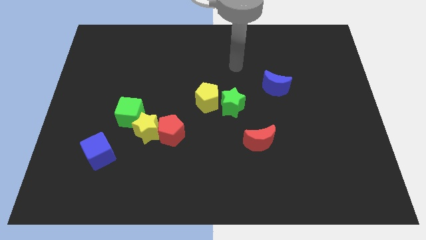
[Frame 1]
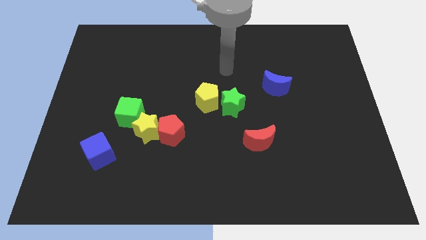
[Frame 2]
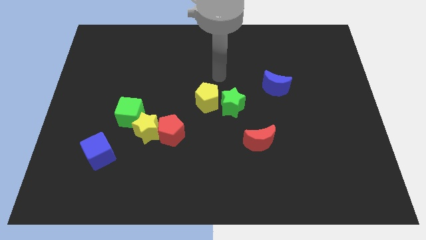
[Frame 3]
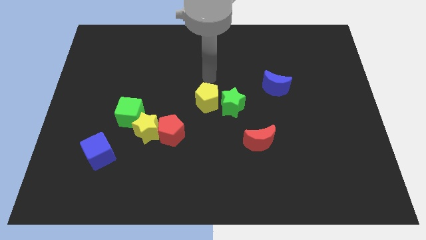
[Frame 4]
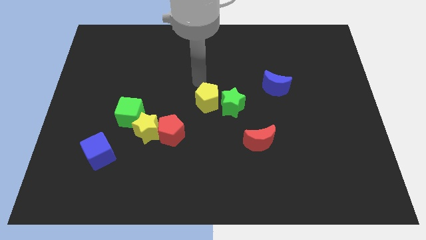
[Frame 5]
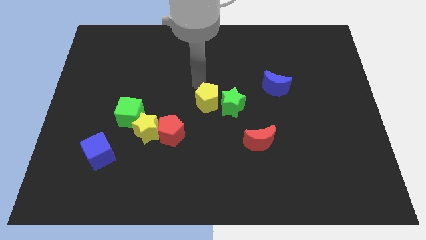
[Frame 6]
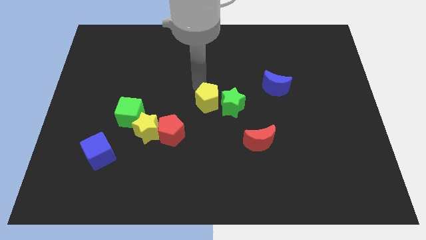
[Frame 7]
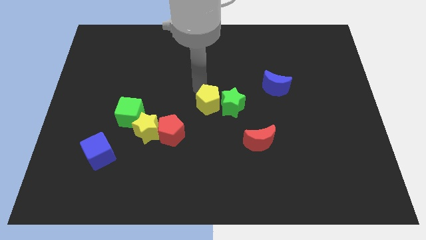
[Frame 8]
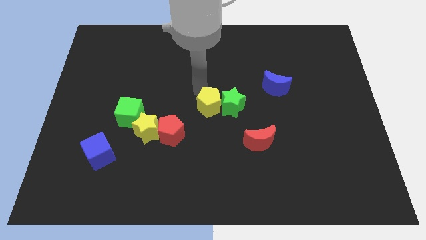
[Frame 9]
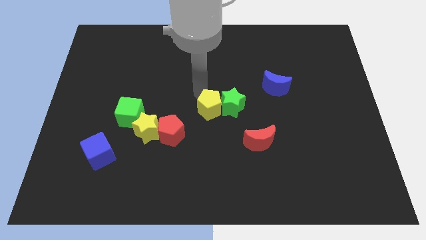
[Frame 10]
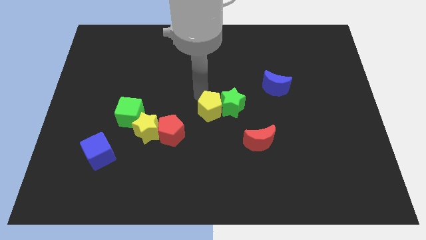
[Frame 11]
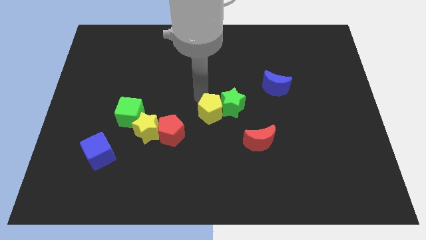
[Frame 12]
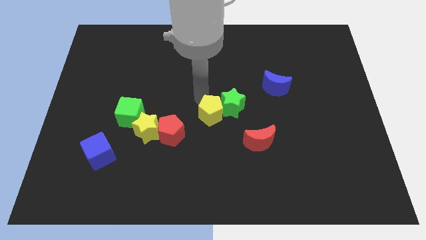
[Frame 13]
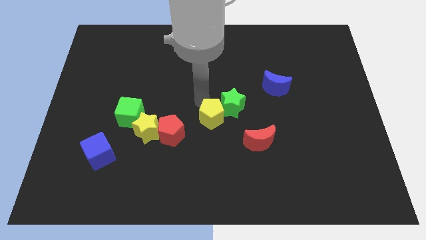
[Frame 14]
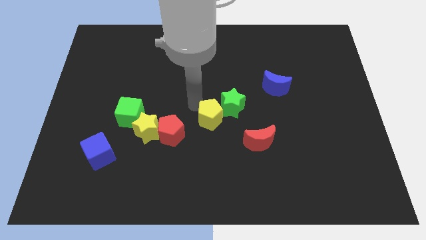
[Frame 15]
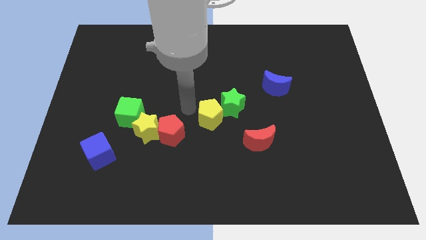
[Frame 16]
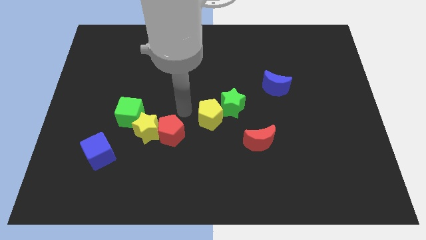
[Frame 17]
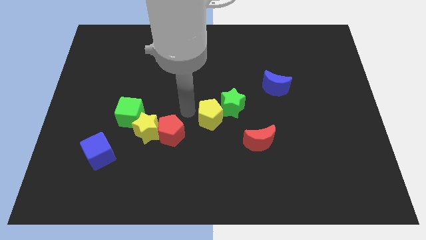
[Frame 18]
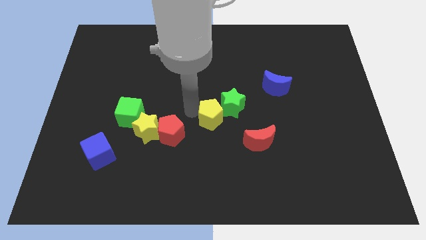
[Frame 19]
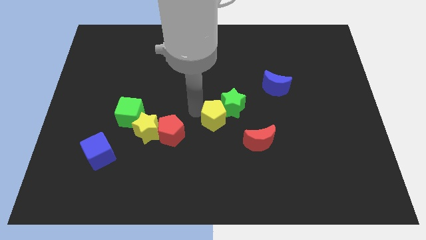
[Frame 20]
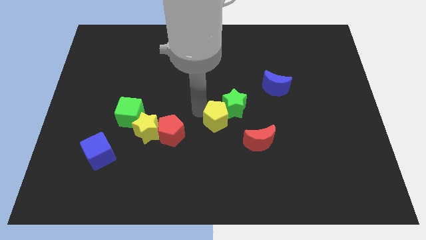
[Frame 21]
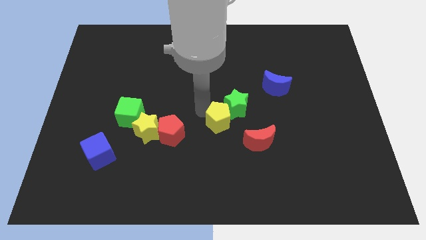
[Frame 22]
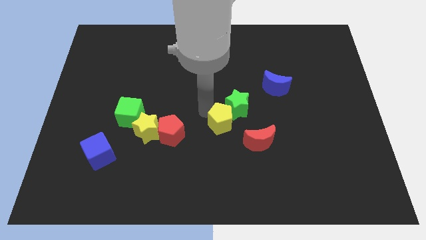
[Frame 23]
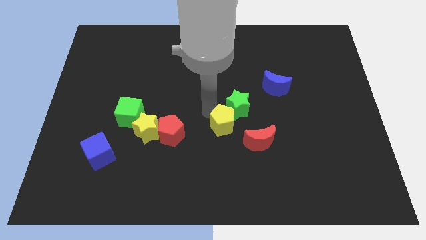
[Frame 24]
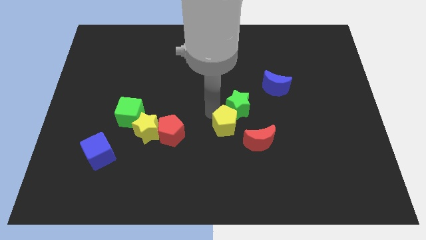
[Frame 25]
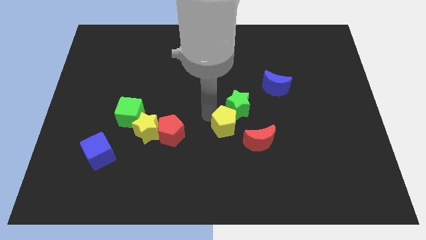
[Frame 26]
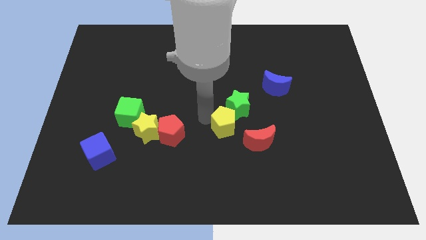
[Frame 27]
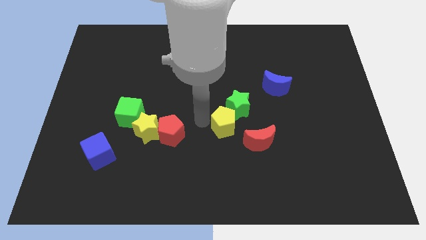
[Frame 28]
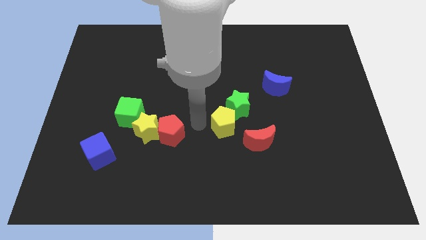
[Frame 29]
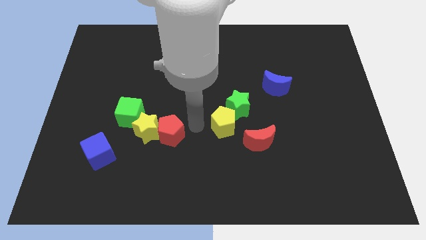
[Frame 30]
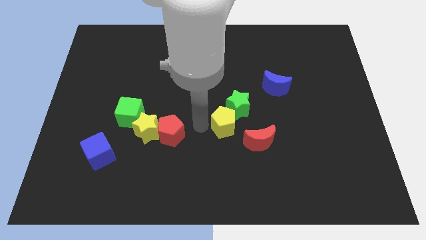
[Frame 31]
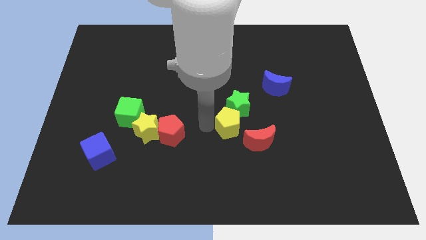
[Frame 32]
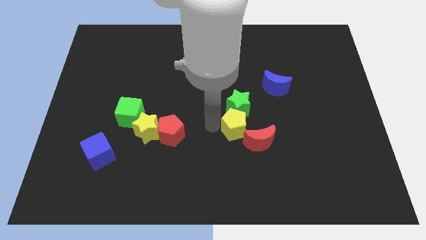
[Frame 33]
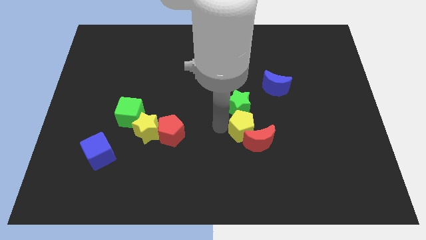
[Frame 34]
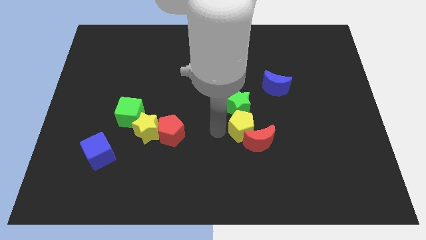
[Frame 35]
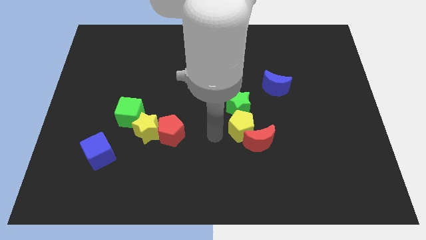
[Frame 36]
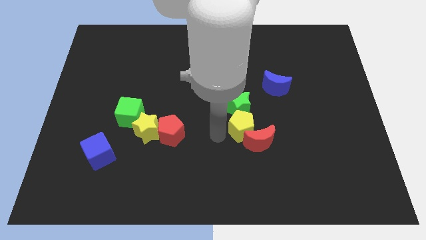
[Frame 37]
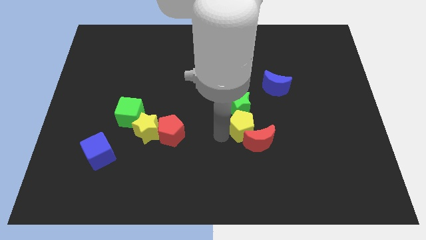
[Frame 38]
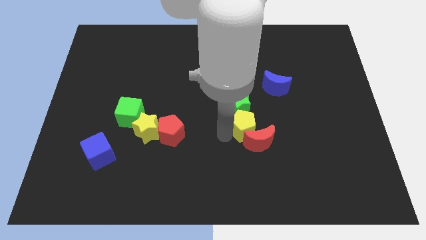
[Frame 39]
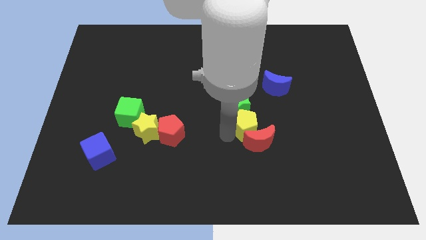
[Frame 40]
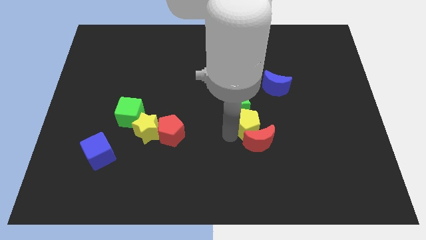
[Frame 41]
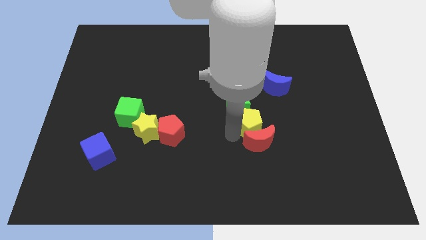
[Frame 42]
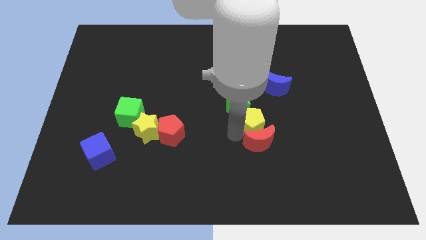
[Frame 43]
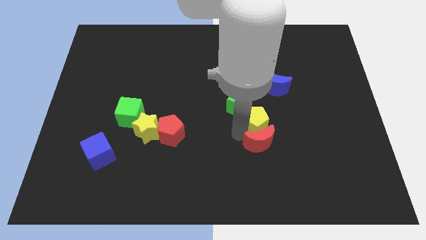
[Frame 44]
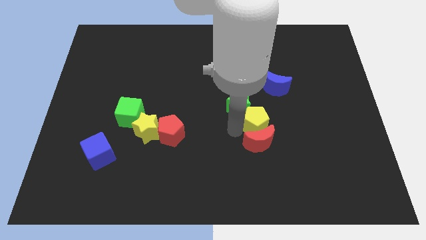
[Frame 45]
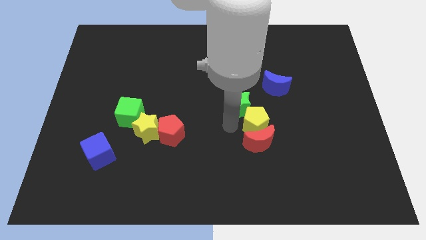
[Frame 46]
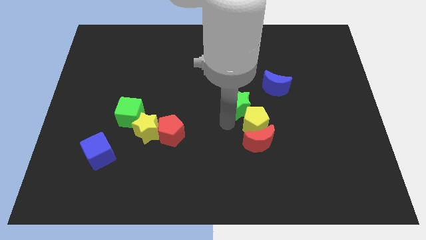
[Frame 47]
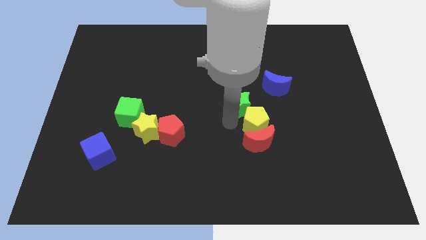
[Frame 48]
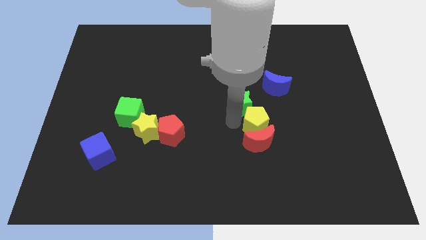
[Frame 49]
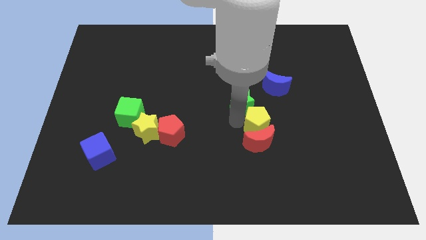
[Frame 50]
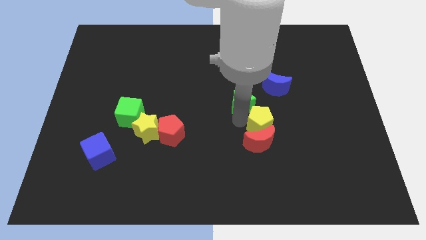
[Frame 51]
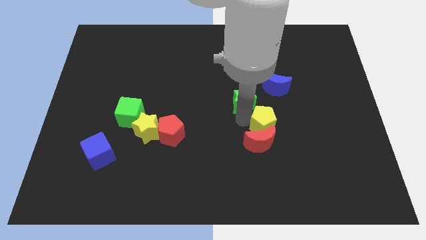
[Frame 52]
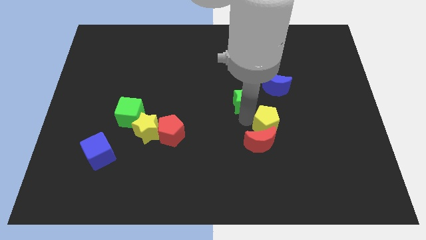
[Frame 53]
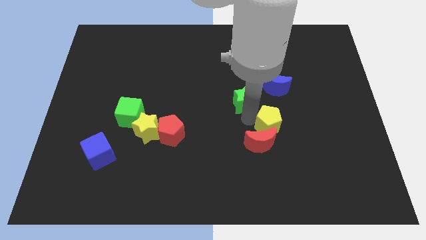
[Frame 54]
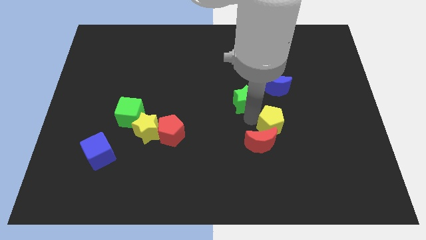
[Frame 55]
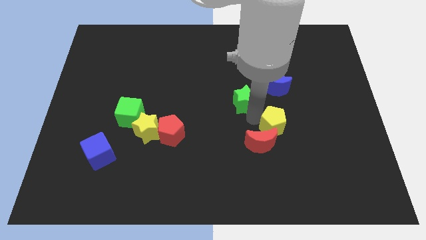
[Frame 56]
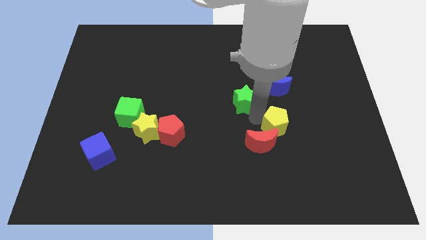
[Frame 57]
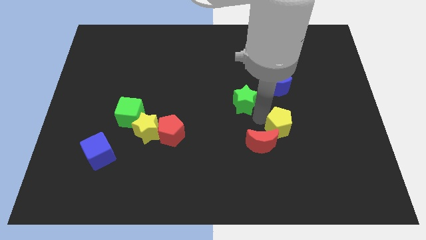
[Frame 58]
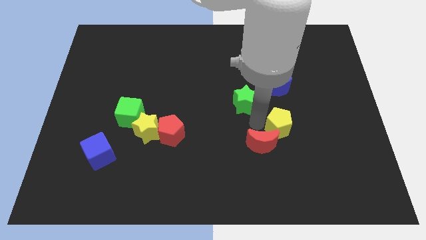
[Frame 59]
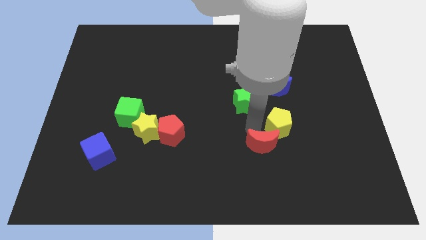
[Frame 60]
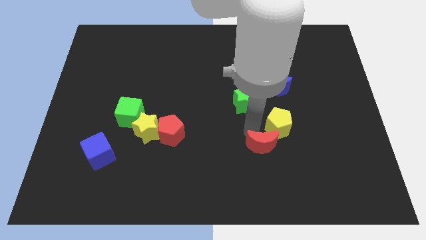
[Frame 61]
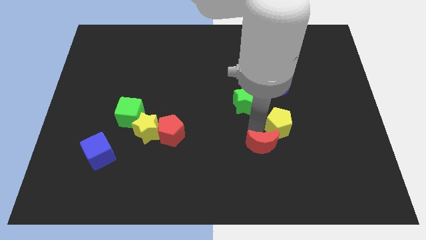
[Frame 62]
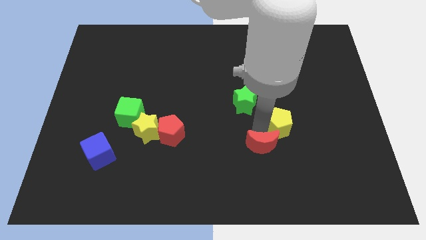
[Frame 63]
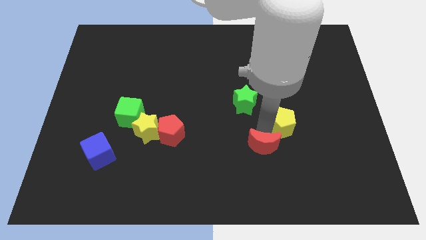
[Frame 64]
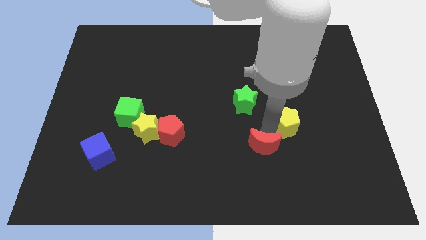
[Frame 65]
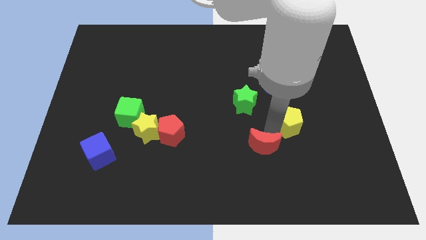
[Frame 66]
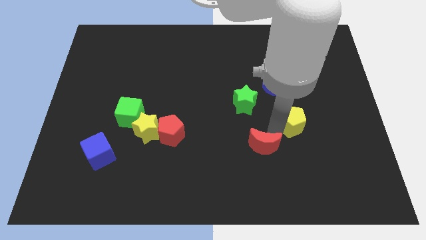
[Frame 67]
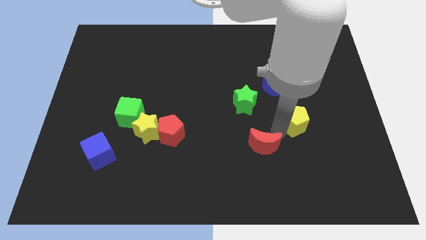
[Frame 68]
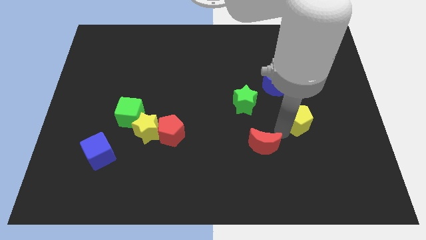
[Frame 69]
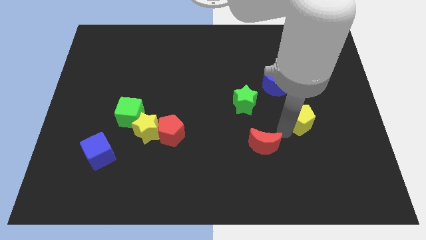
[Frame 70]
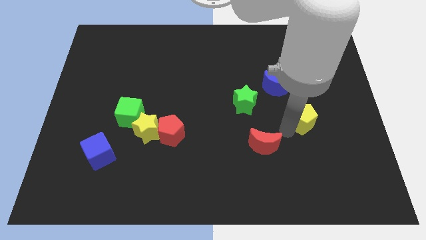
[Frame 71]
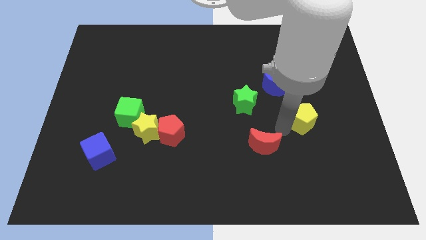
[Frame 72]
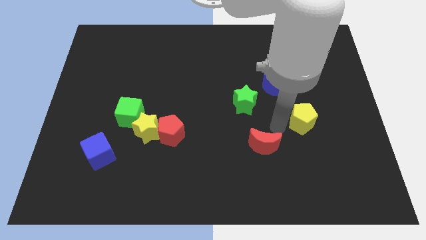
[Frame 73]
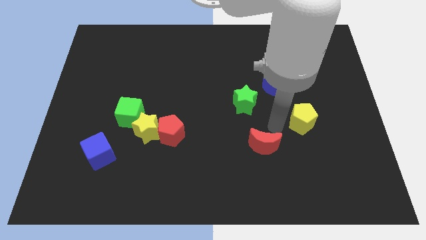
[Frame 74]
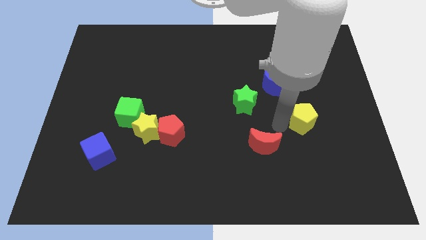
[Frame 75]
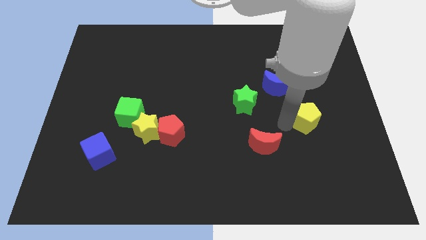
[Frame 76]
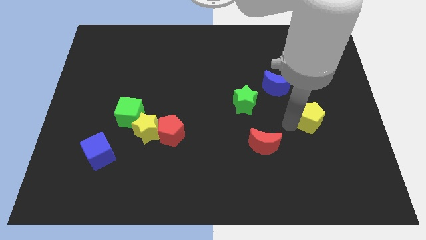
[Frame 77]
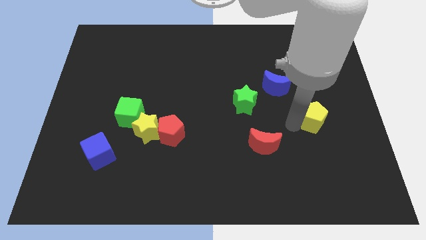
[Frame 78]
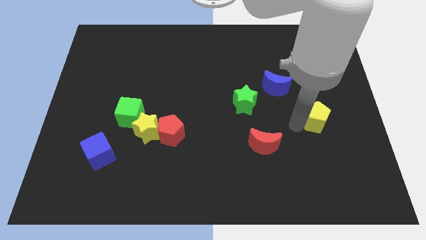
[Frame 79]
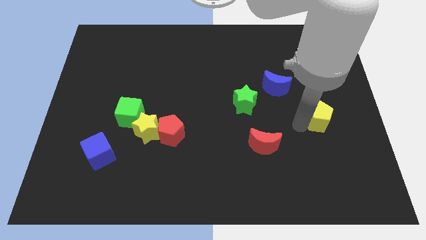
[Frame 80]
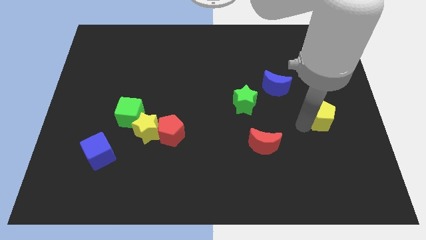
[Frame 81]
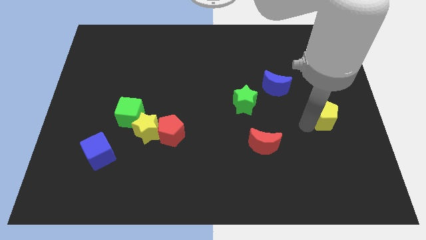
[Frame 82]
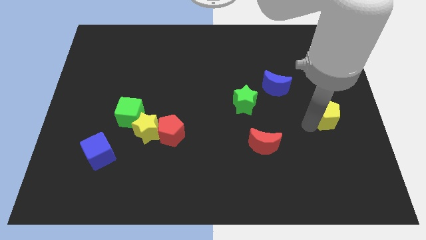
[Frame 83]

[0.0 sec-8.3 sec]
put the yellow pentagon to the right side
